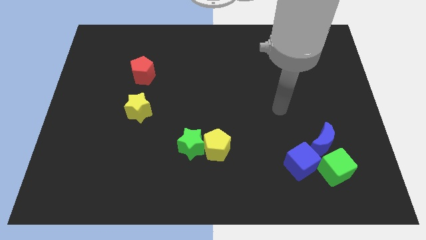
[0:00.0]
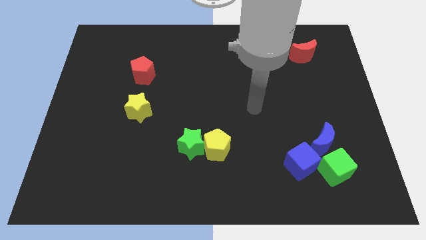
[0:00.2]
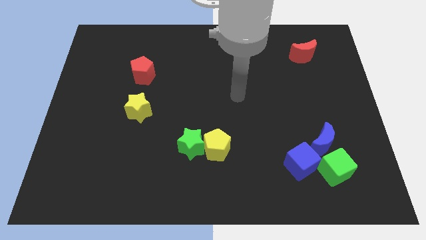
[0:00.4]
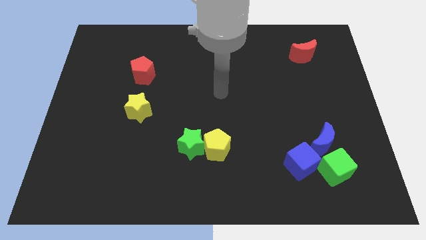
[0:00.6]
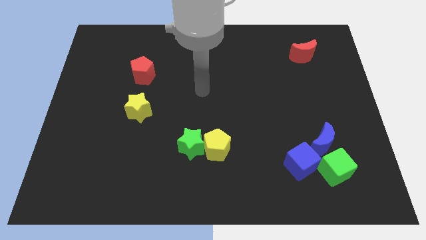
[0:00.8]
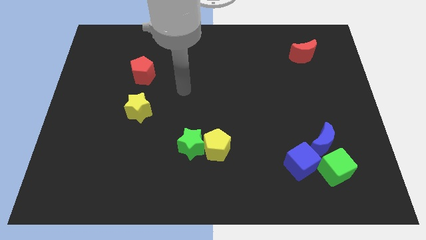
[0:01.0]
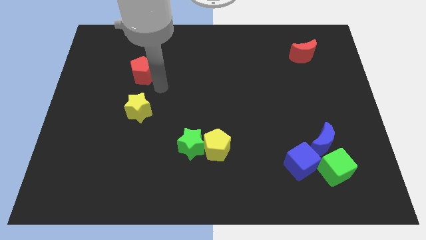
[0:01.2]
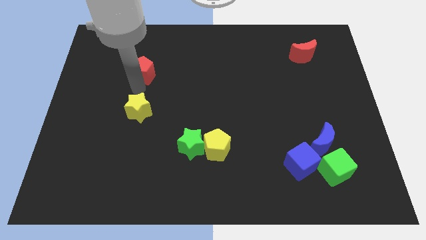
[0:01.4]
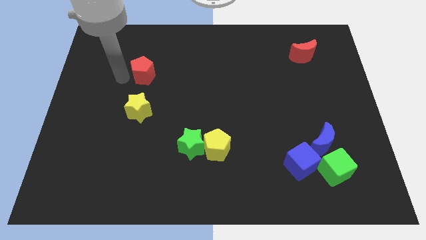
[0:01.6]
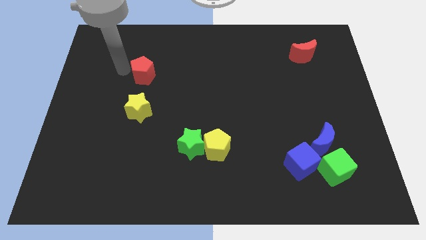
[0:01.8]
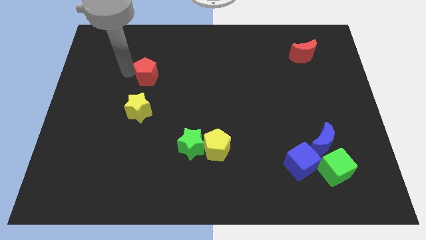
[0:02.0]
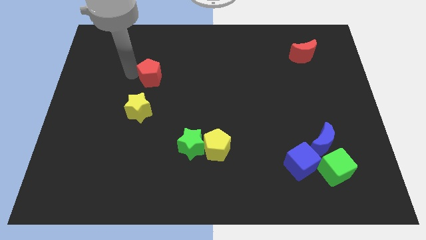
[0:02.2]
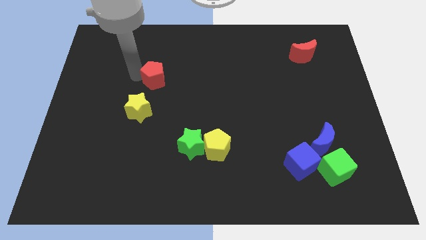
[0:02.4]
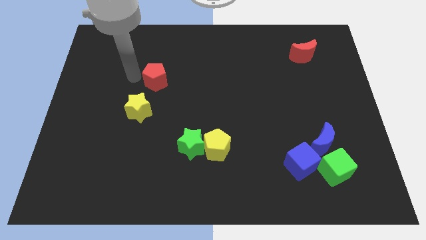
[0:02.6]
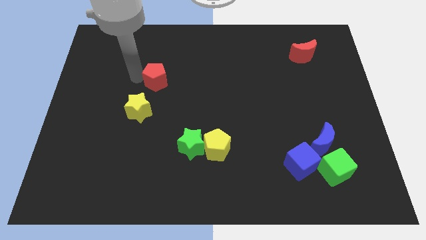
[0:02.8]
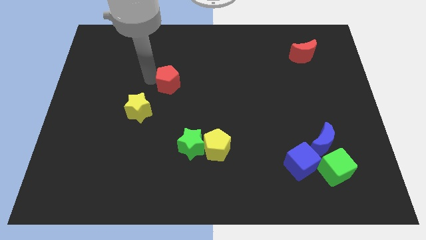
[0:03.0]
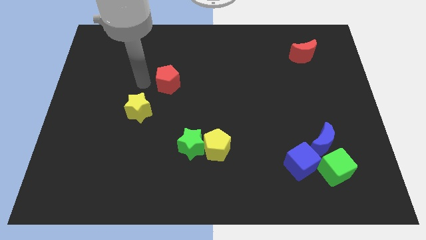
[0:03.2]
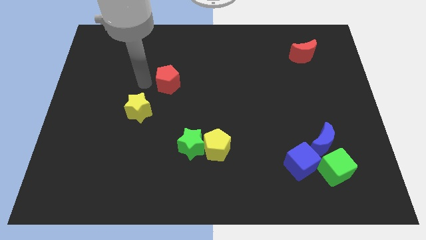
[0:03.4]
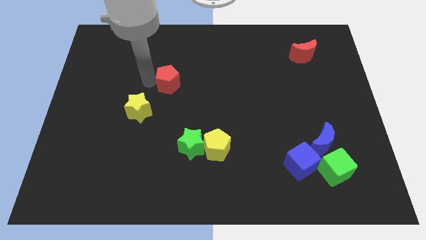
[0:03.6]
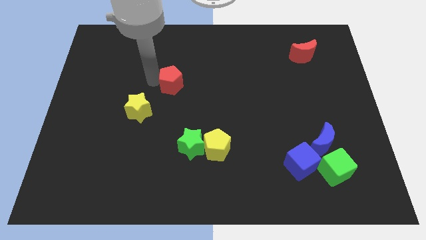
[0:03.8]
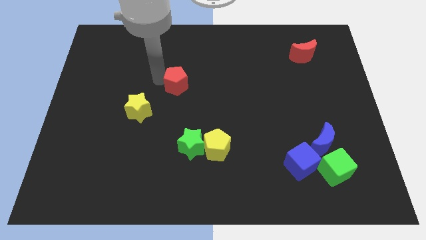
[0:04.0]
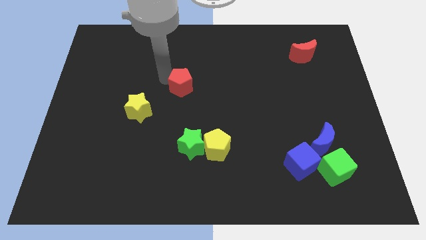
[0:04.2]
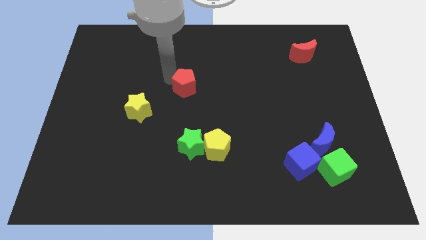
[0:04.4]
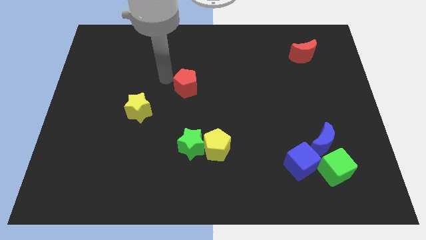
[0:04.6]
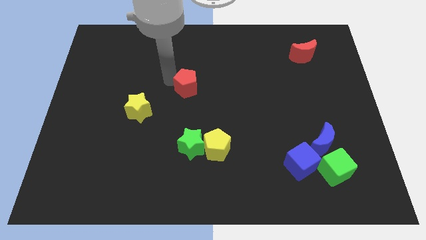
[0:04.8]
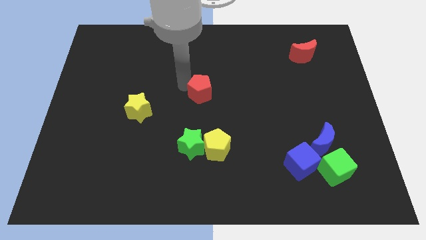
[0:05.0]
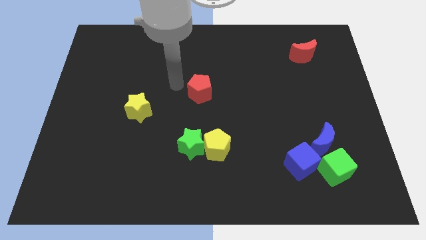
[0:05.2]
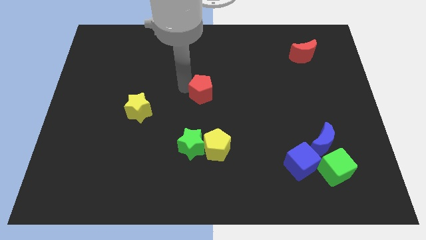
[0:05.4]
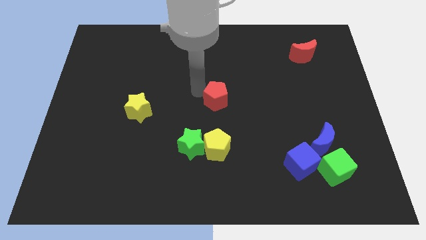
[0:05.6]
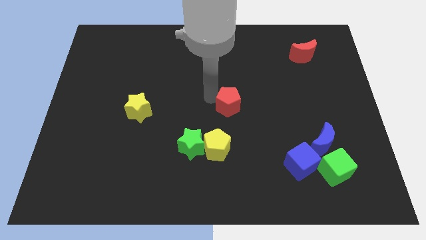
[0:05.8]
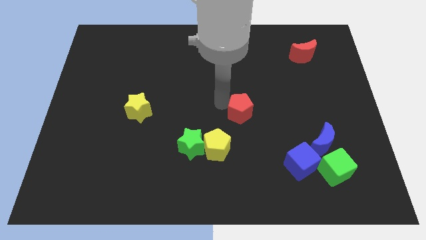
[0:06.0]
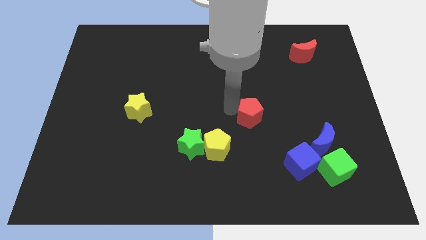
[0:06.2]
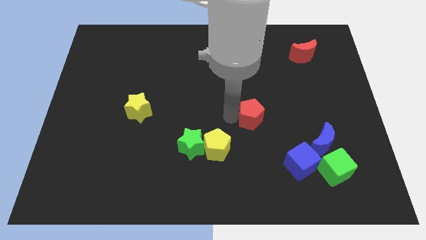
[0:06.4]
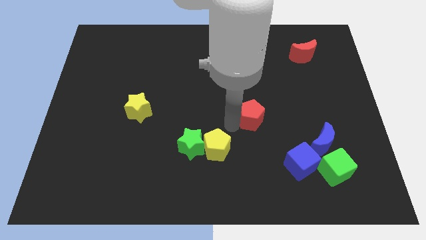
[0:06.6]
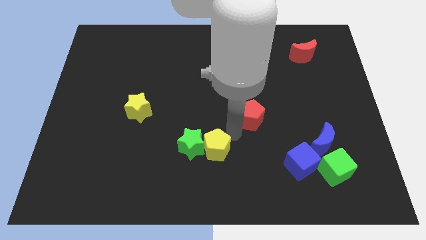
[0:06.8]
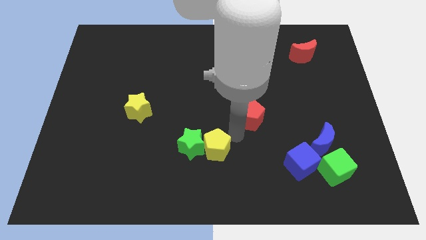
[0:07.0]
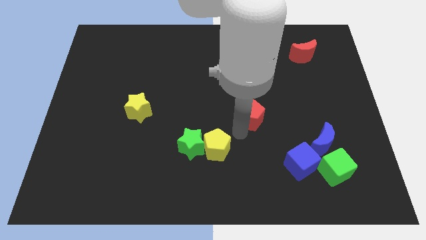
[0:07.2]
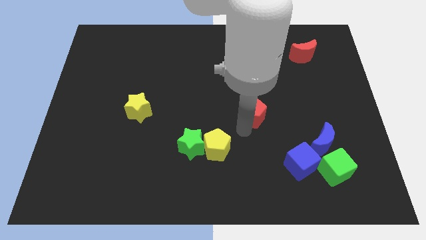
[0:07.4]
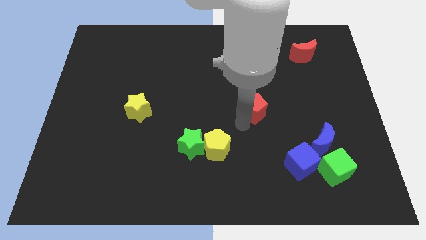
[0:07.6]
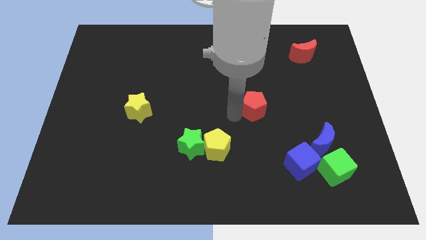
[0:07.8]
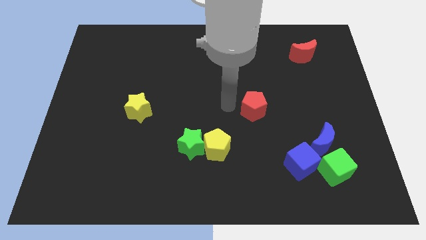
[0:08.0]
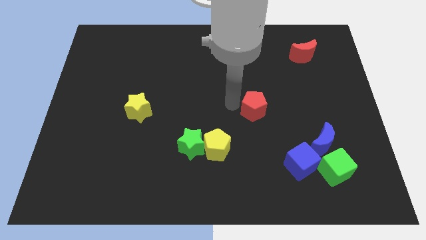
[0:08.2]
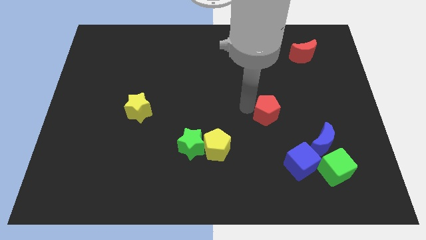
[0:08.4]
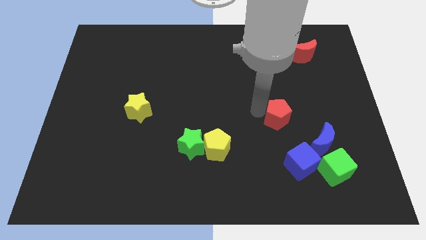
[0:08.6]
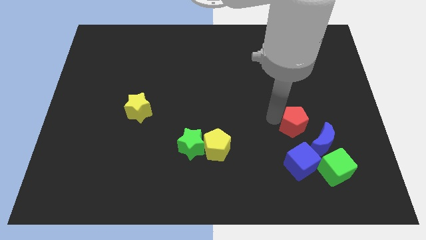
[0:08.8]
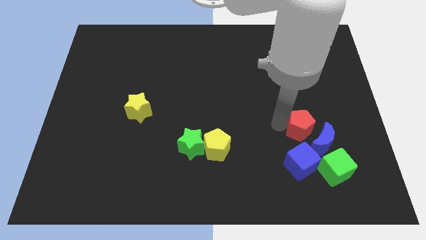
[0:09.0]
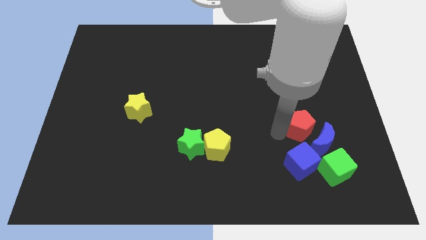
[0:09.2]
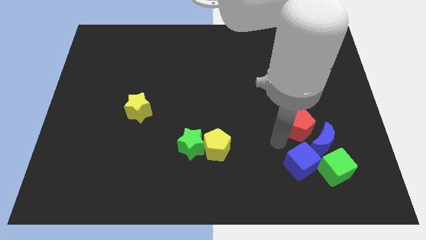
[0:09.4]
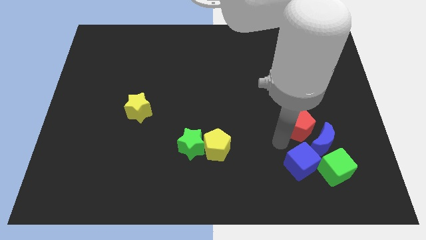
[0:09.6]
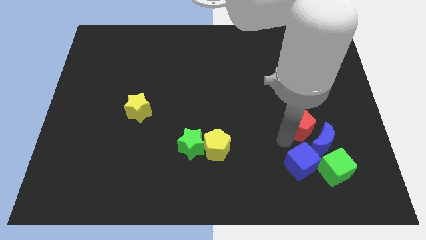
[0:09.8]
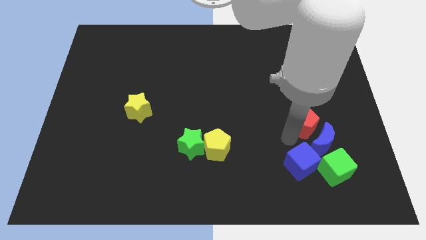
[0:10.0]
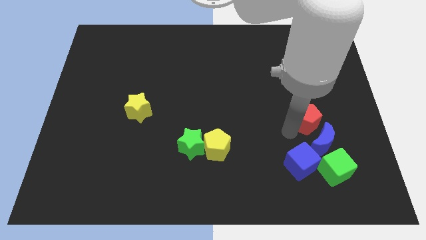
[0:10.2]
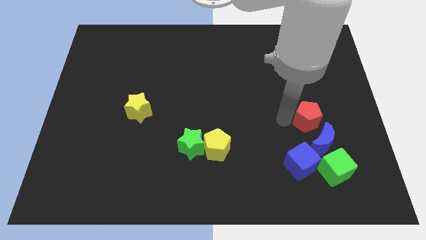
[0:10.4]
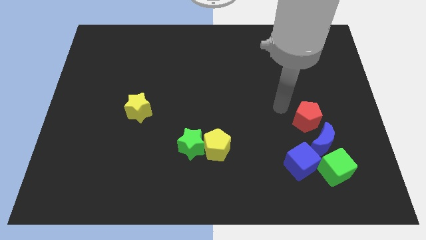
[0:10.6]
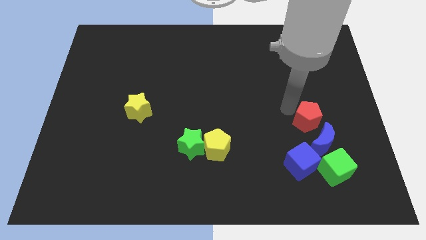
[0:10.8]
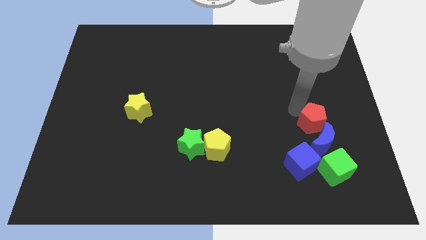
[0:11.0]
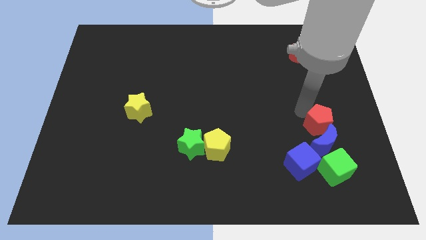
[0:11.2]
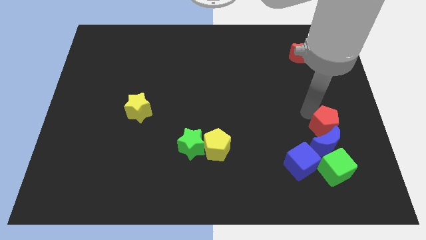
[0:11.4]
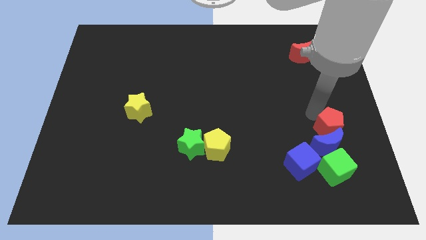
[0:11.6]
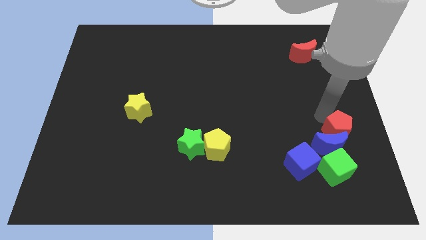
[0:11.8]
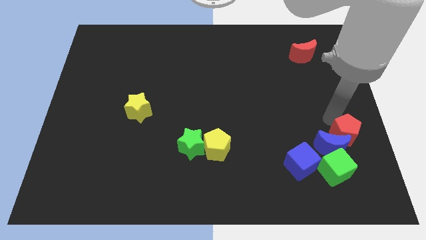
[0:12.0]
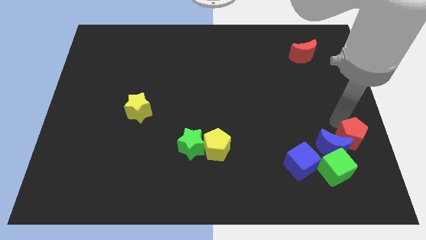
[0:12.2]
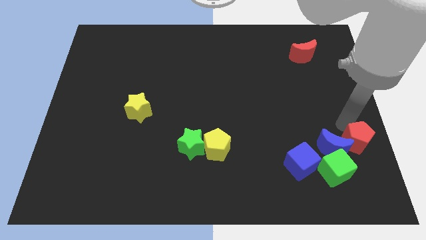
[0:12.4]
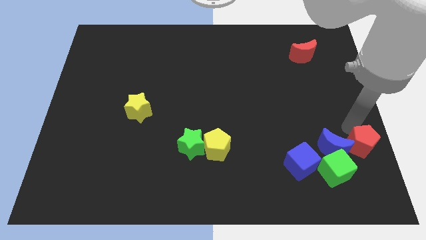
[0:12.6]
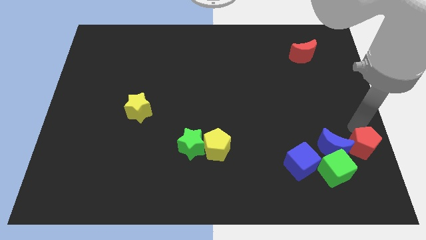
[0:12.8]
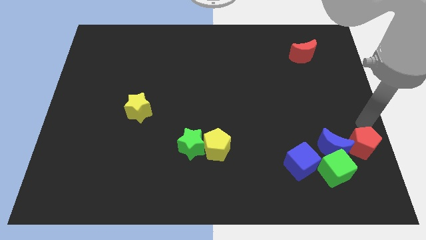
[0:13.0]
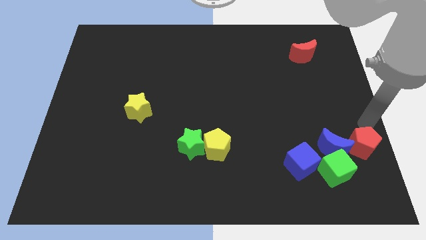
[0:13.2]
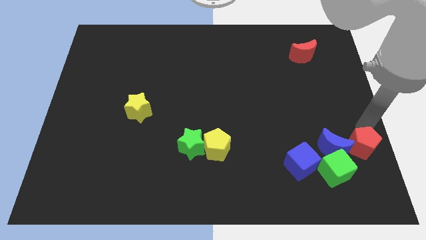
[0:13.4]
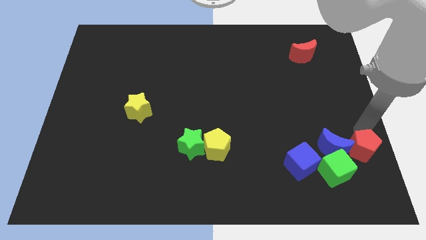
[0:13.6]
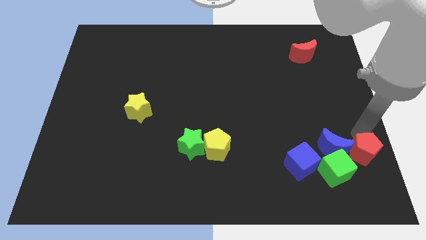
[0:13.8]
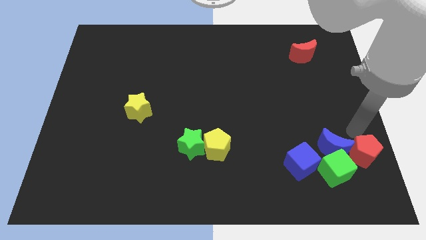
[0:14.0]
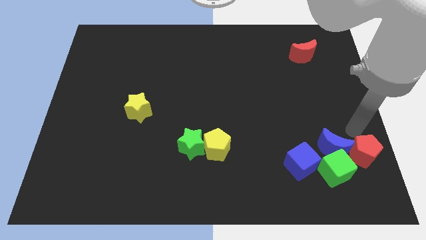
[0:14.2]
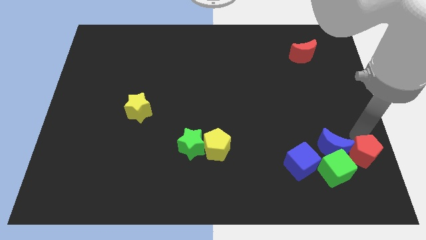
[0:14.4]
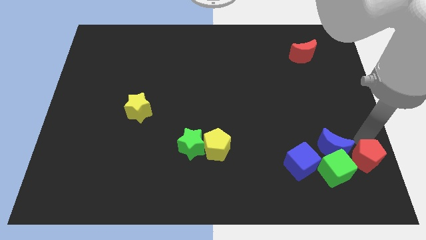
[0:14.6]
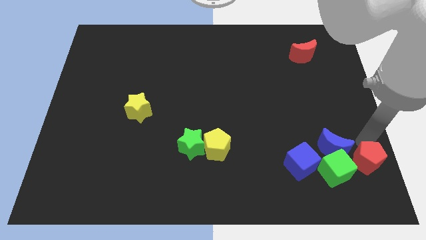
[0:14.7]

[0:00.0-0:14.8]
move the red pentagon to the lower right corner
